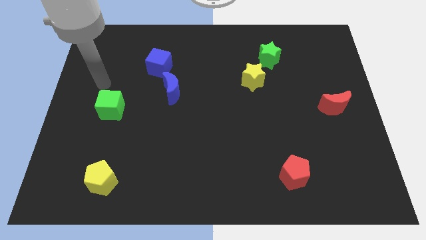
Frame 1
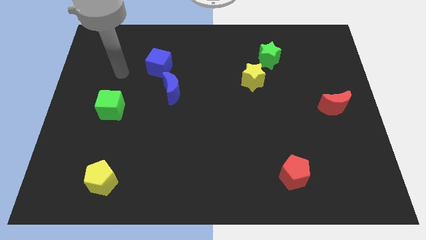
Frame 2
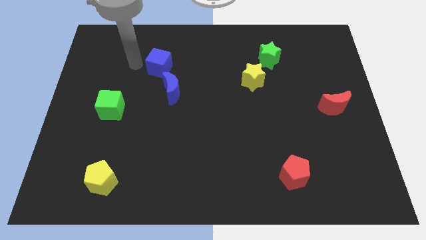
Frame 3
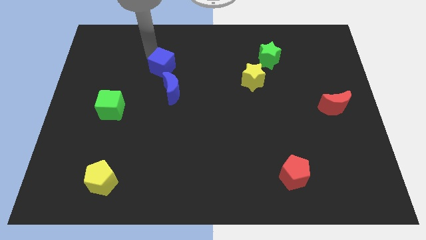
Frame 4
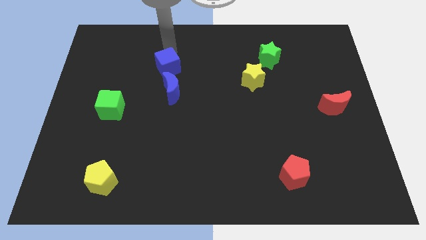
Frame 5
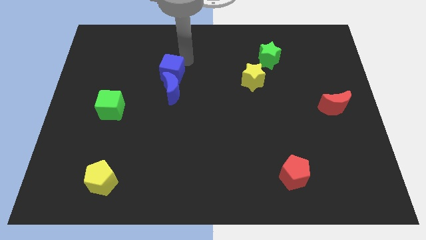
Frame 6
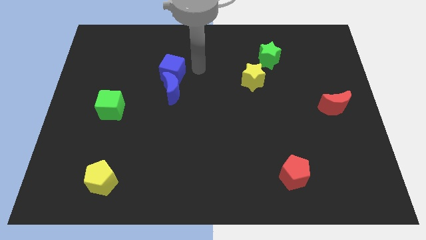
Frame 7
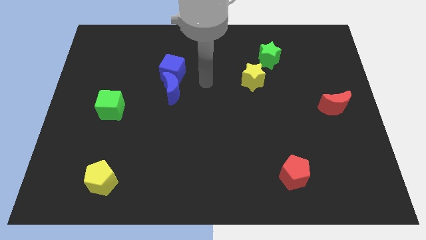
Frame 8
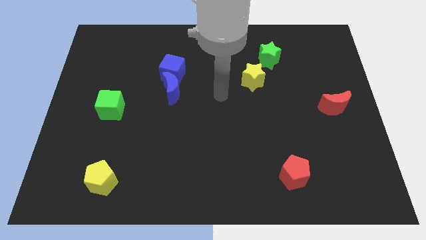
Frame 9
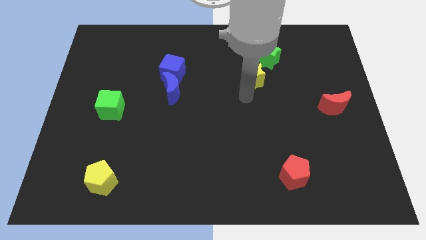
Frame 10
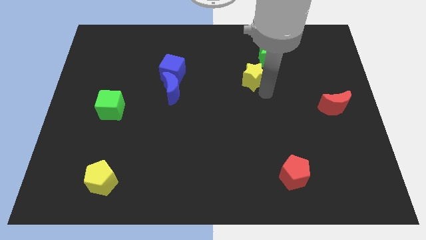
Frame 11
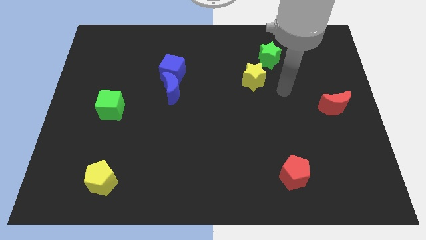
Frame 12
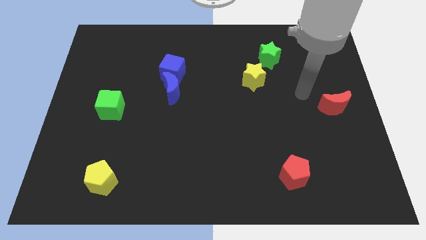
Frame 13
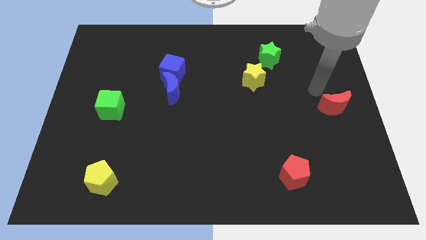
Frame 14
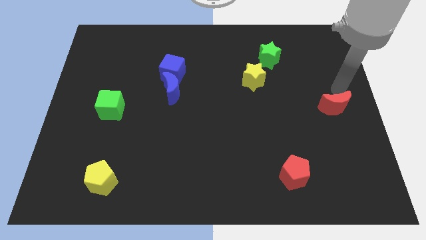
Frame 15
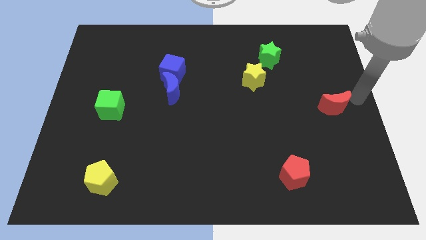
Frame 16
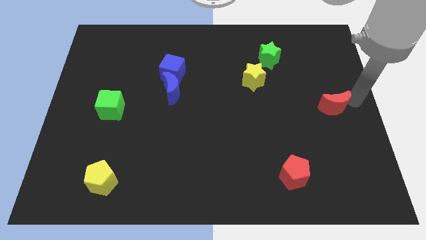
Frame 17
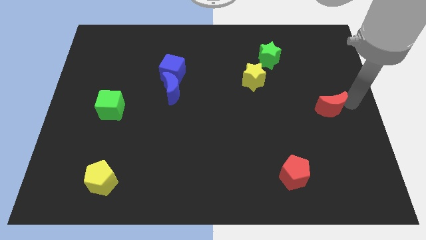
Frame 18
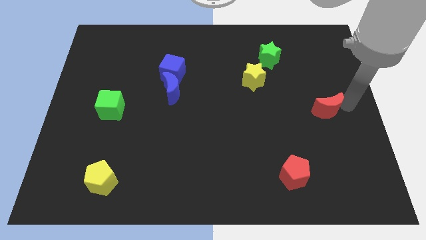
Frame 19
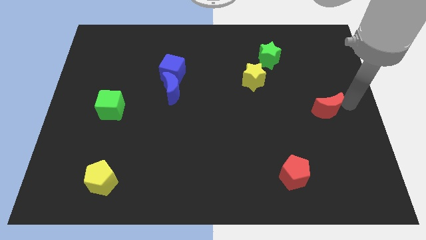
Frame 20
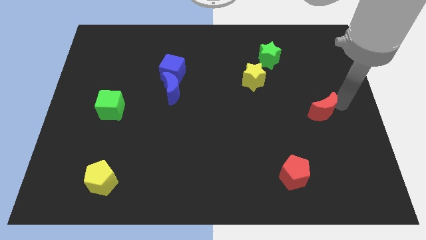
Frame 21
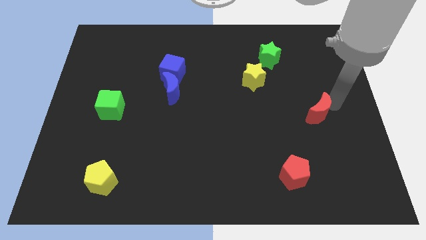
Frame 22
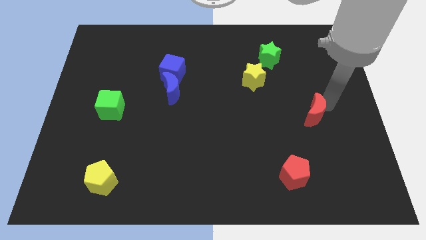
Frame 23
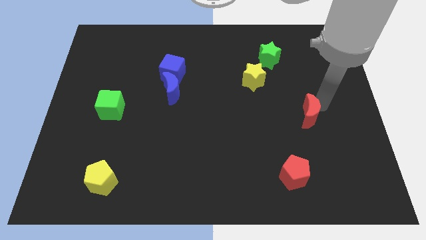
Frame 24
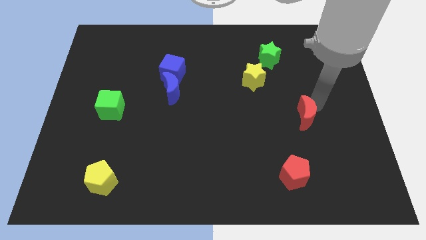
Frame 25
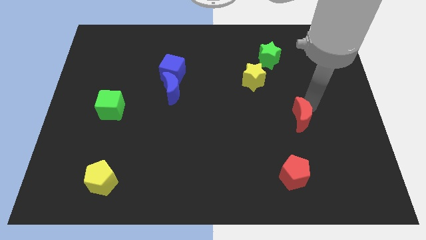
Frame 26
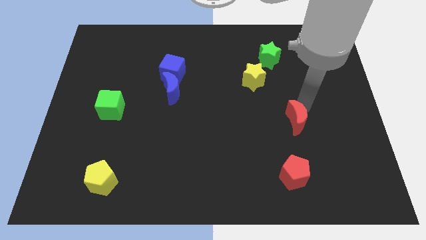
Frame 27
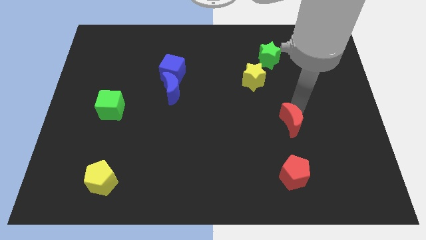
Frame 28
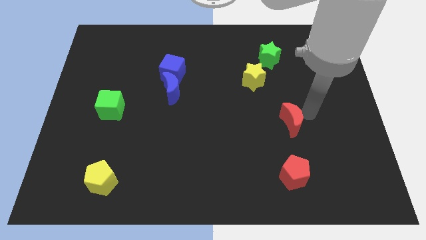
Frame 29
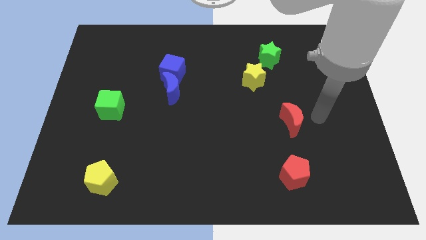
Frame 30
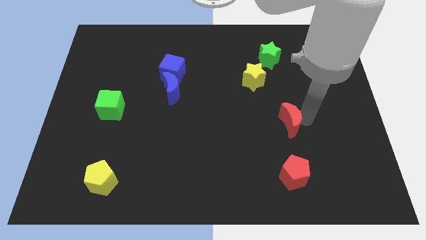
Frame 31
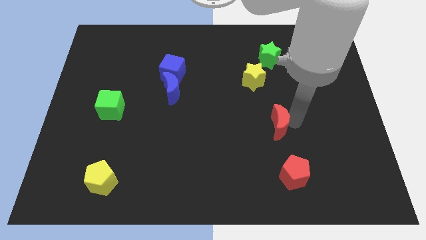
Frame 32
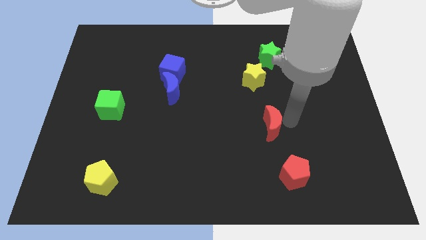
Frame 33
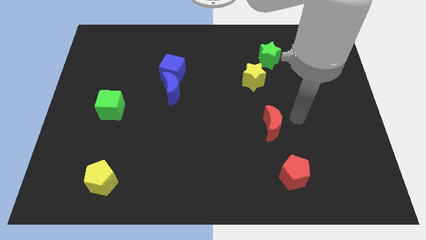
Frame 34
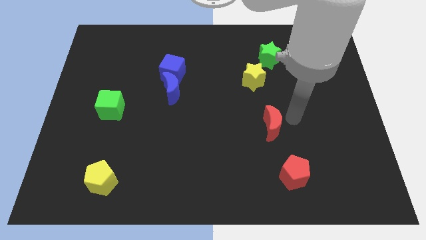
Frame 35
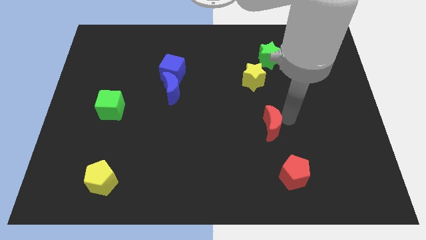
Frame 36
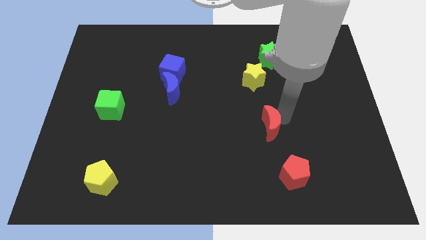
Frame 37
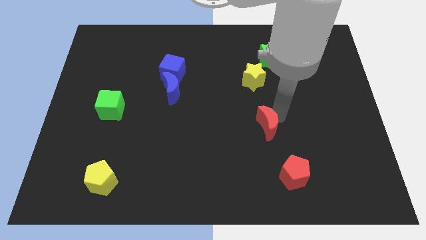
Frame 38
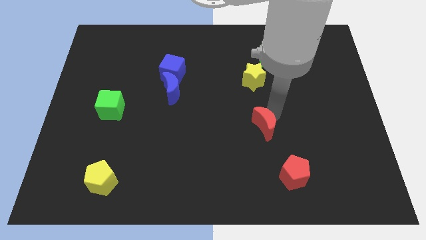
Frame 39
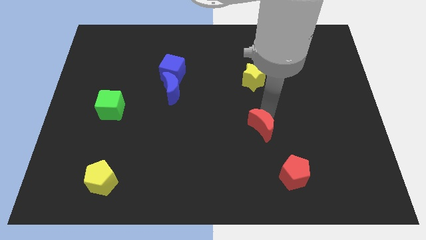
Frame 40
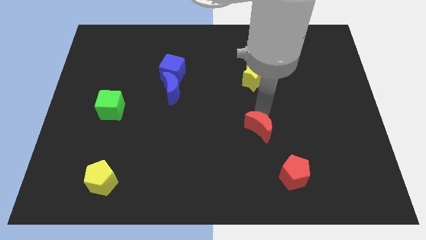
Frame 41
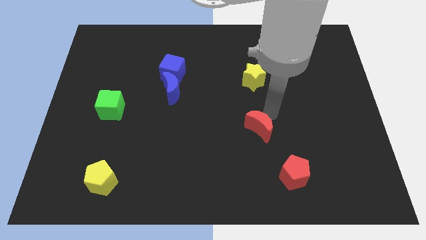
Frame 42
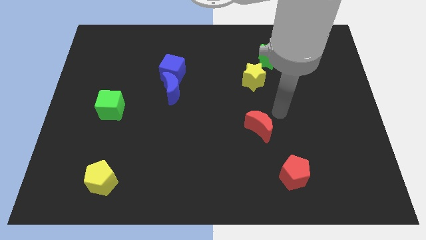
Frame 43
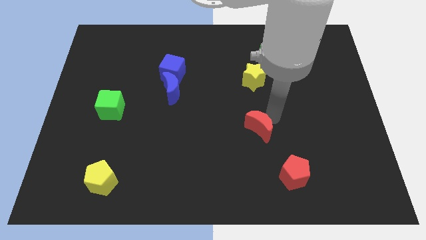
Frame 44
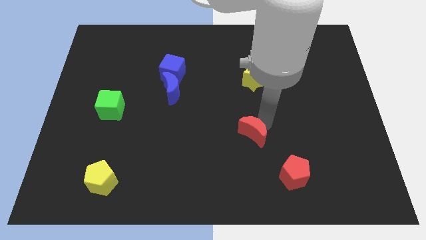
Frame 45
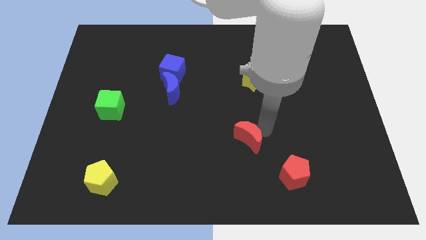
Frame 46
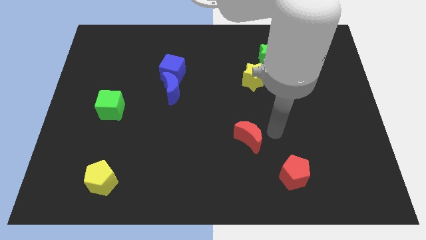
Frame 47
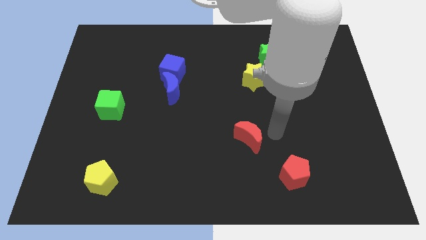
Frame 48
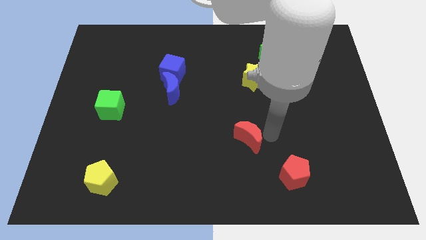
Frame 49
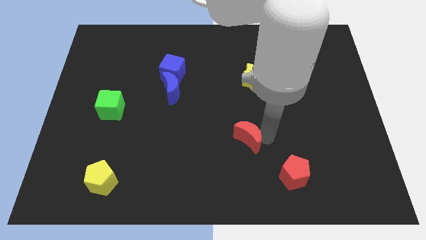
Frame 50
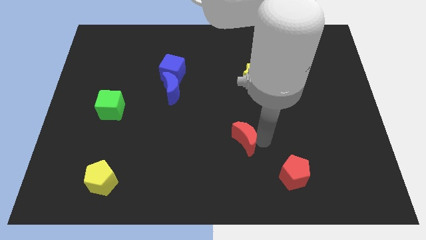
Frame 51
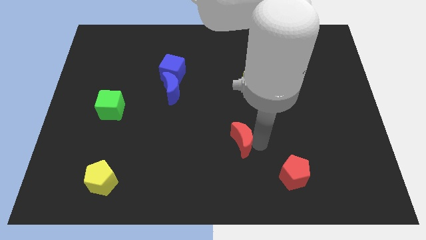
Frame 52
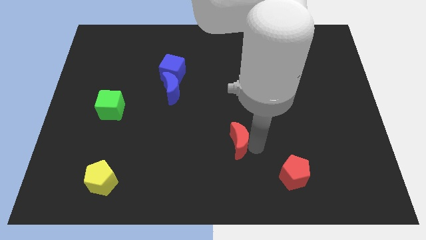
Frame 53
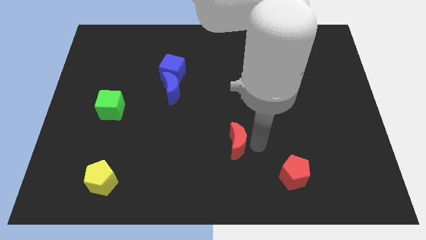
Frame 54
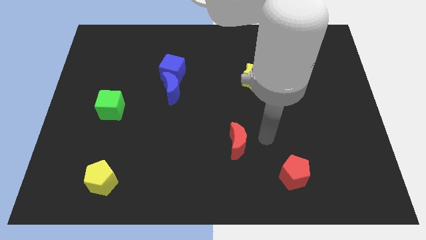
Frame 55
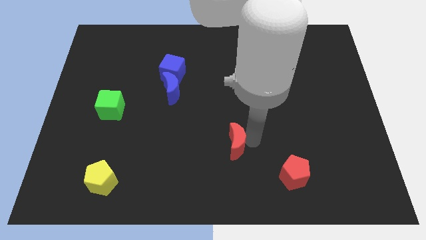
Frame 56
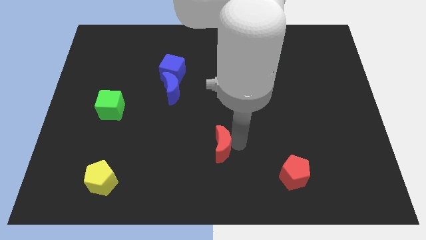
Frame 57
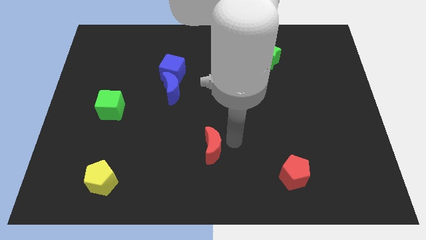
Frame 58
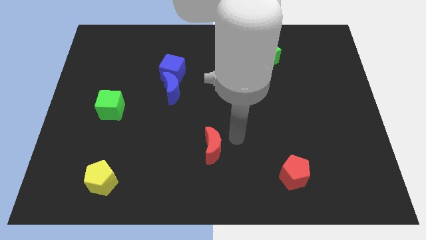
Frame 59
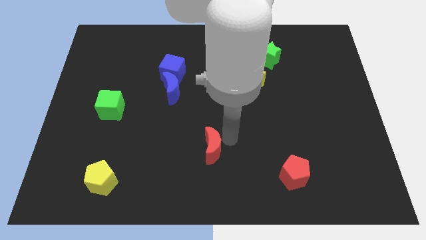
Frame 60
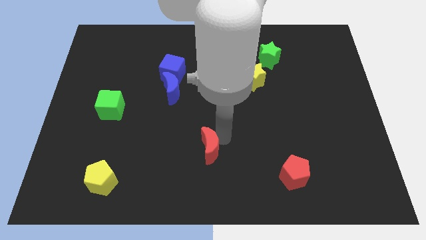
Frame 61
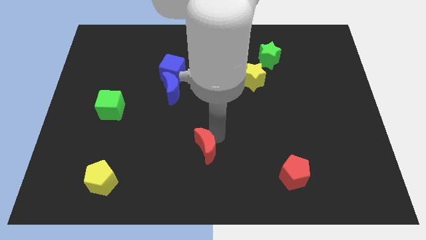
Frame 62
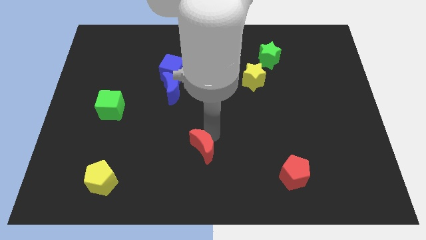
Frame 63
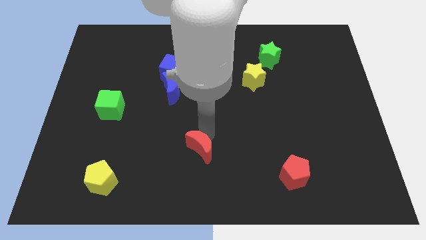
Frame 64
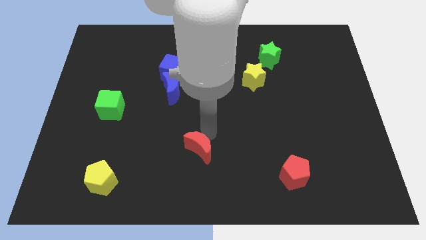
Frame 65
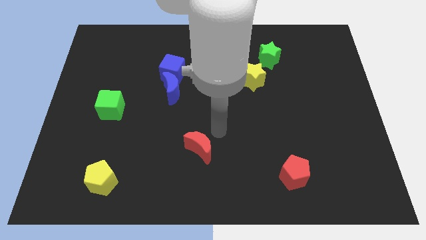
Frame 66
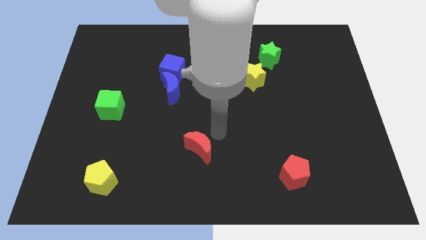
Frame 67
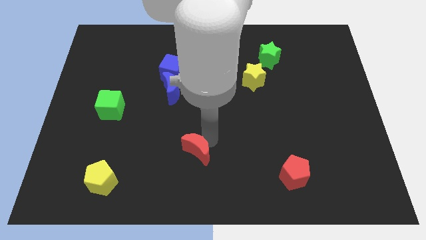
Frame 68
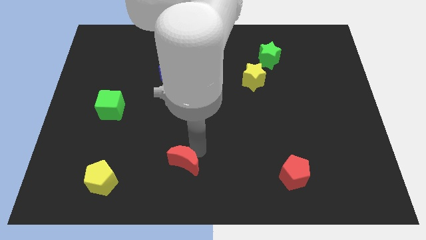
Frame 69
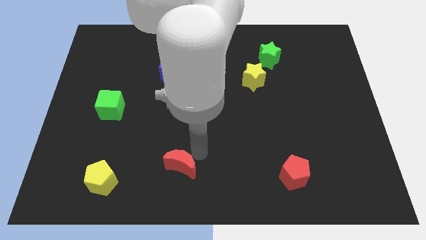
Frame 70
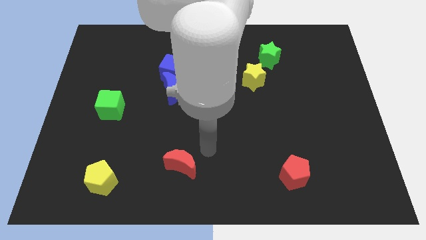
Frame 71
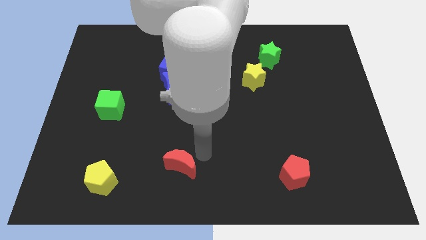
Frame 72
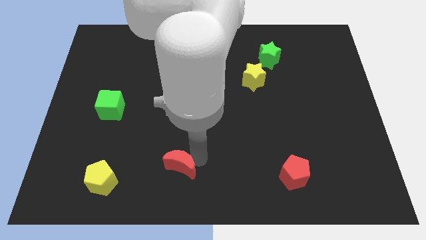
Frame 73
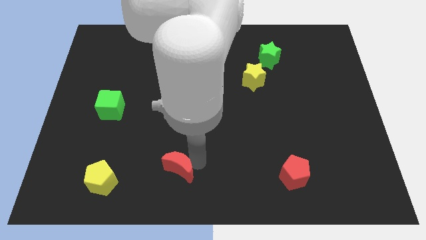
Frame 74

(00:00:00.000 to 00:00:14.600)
slide the red moon to the right of the yellow pentagon
